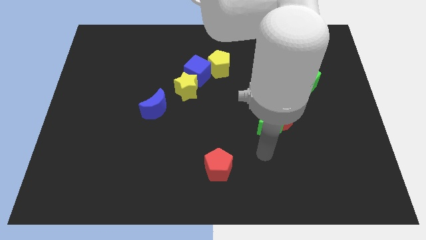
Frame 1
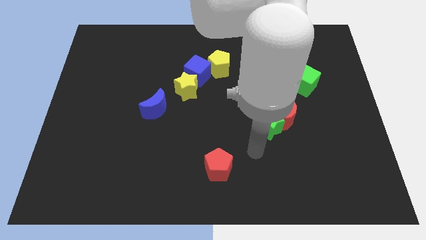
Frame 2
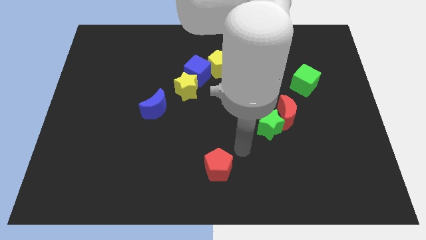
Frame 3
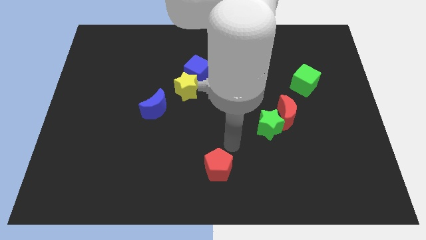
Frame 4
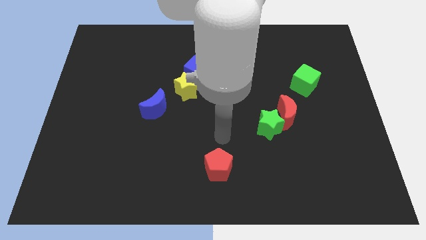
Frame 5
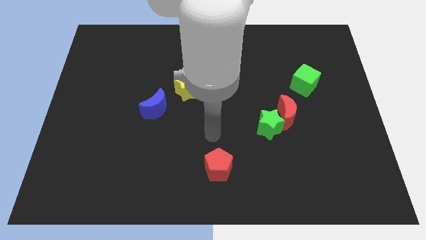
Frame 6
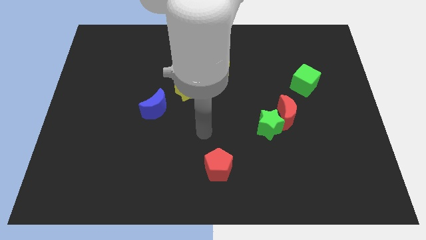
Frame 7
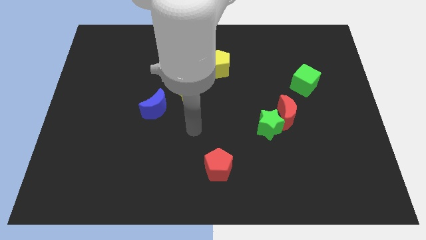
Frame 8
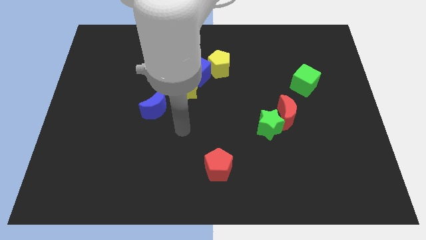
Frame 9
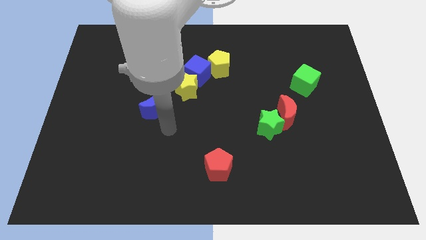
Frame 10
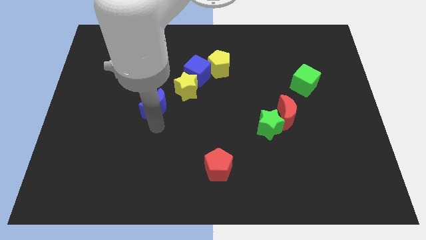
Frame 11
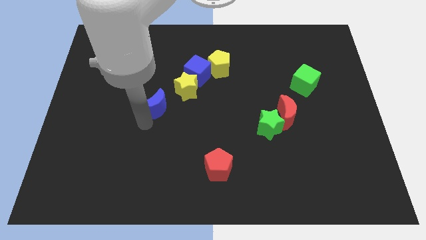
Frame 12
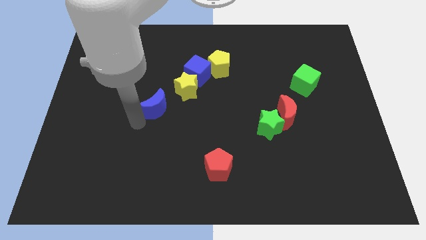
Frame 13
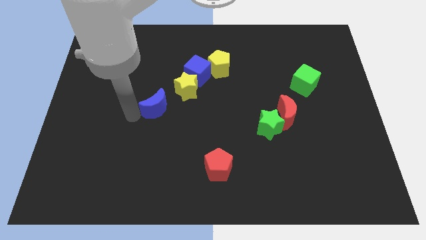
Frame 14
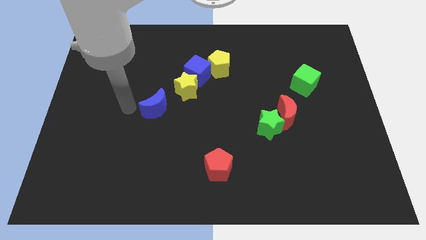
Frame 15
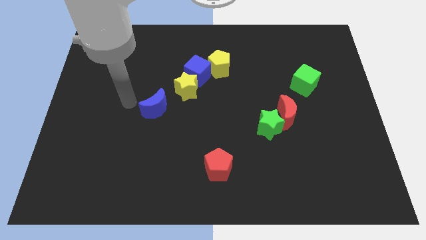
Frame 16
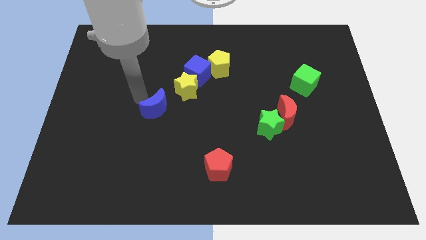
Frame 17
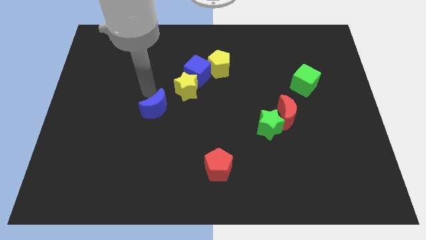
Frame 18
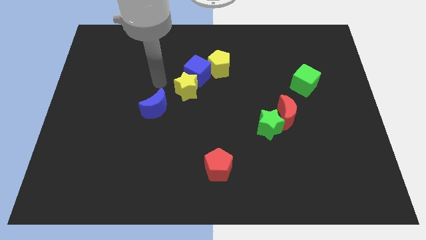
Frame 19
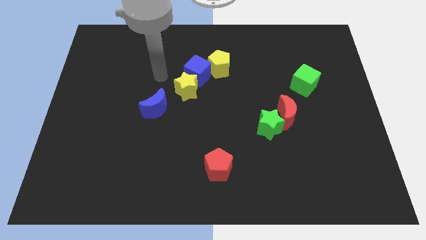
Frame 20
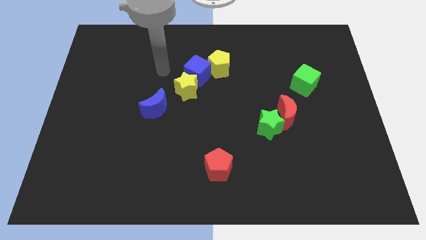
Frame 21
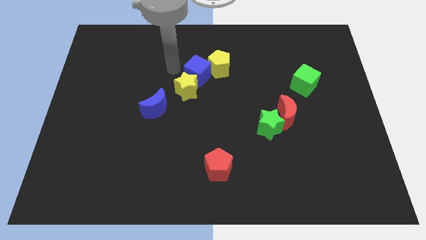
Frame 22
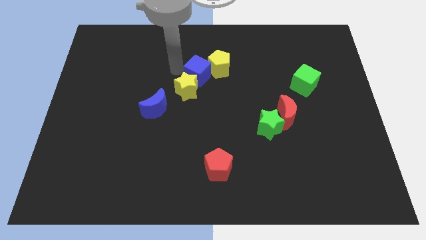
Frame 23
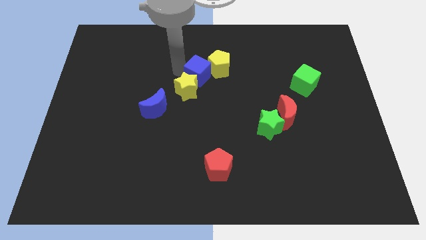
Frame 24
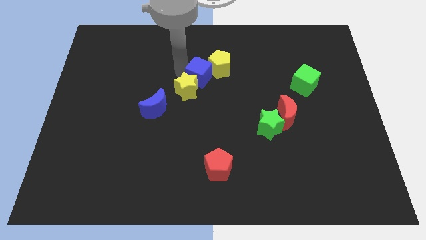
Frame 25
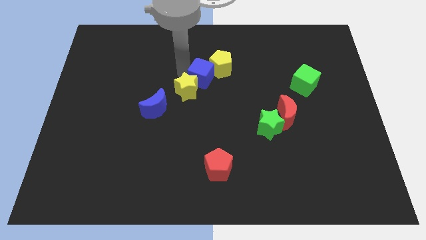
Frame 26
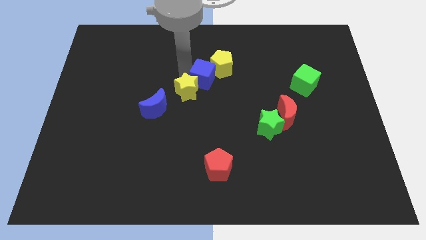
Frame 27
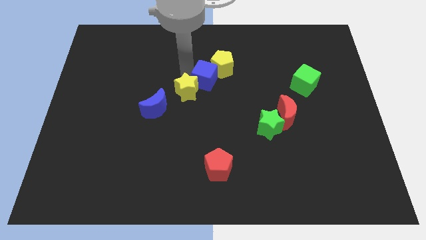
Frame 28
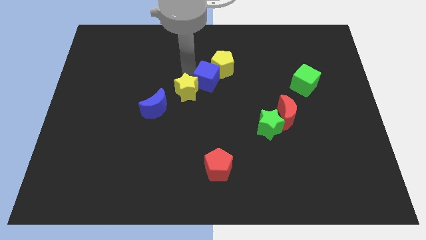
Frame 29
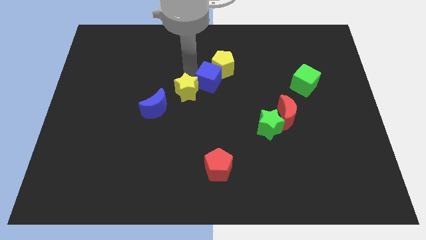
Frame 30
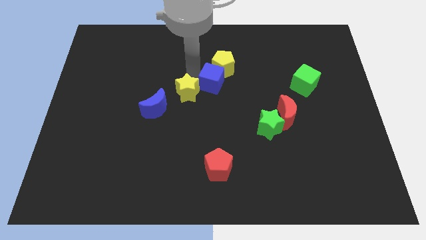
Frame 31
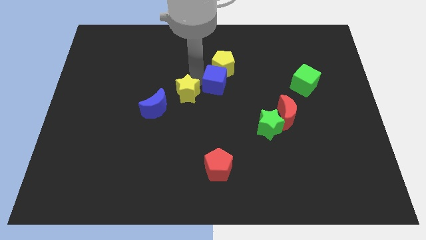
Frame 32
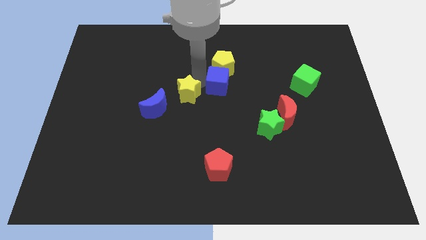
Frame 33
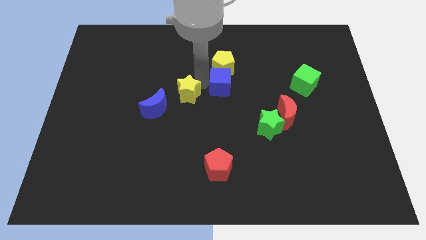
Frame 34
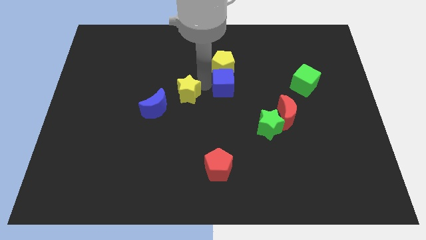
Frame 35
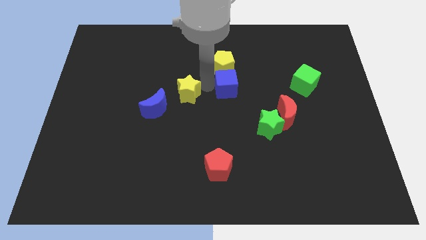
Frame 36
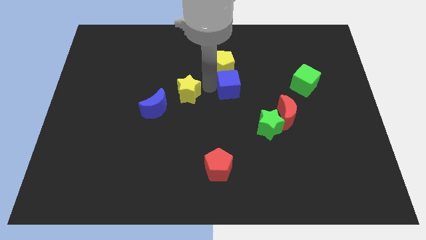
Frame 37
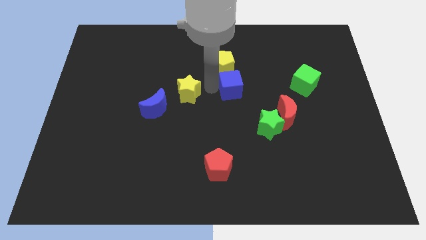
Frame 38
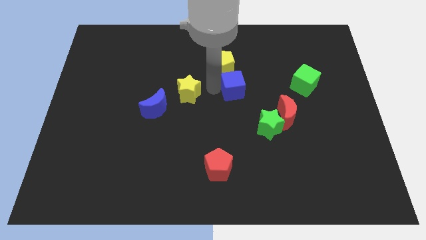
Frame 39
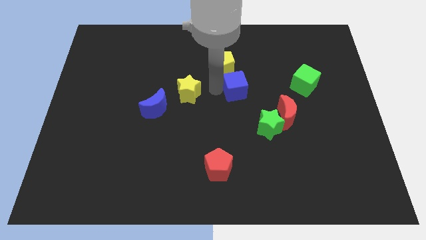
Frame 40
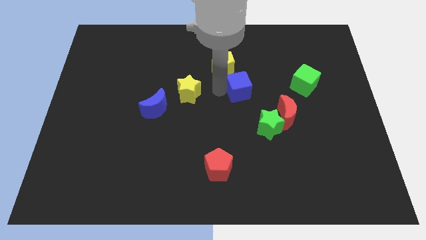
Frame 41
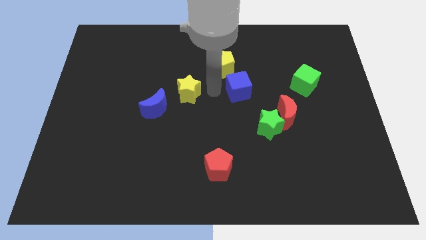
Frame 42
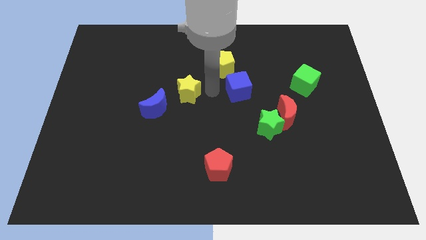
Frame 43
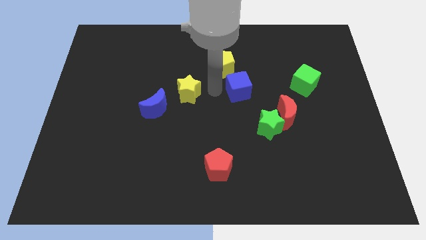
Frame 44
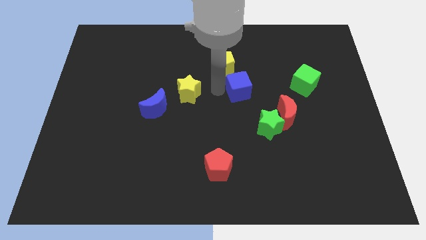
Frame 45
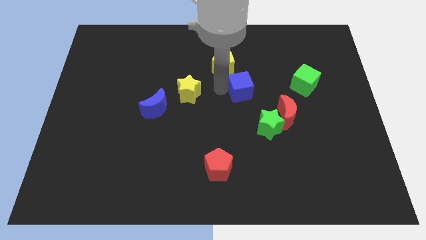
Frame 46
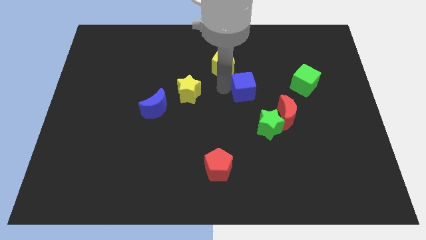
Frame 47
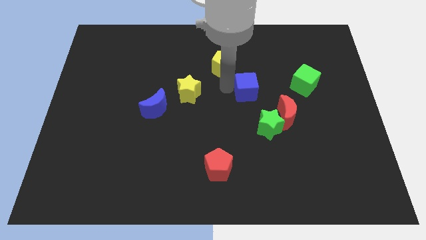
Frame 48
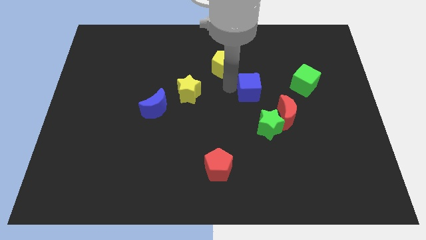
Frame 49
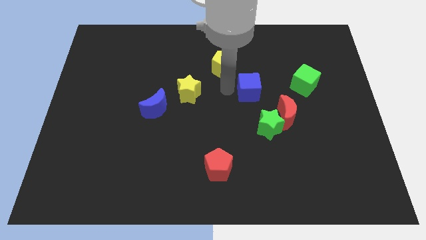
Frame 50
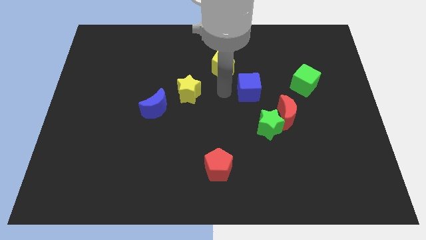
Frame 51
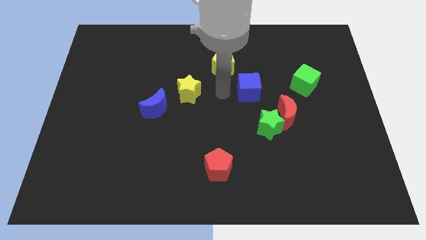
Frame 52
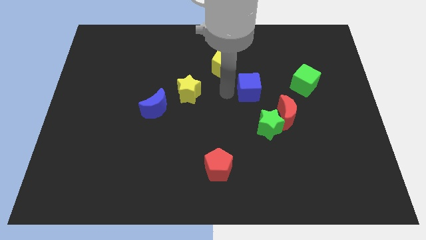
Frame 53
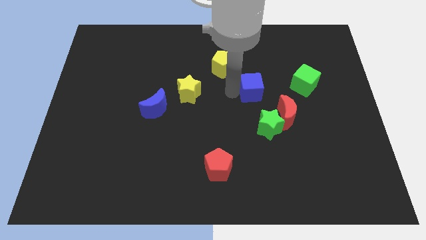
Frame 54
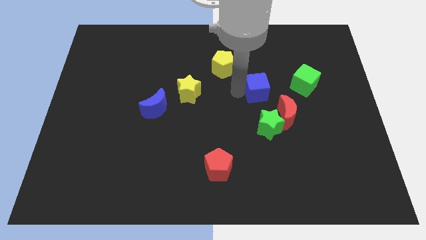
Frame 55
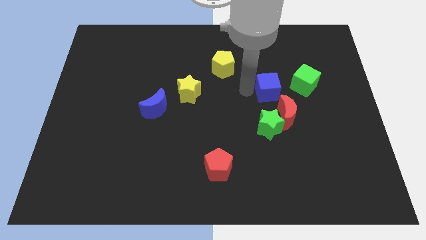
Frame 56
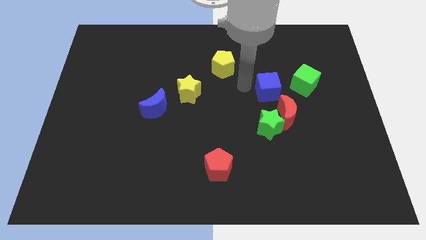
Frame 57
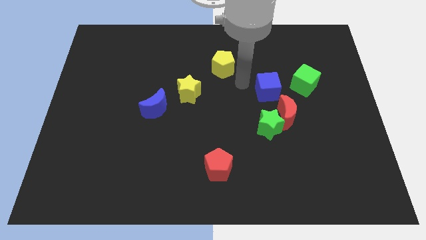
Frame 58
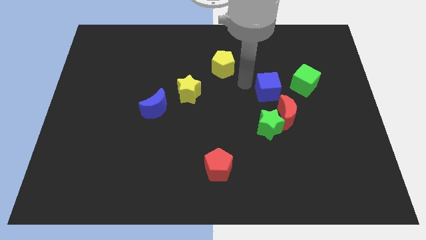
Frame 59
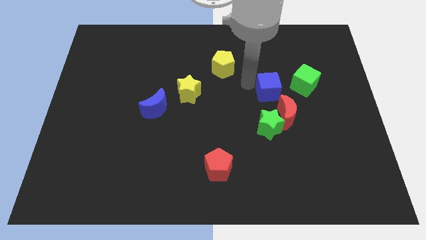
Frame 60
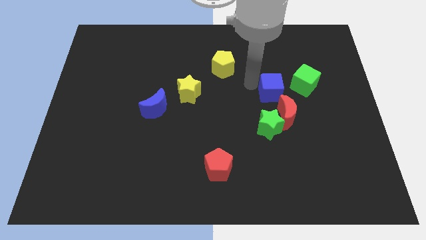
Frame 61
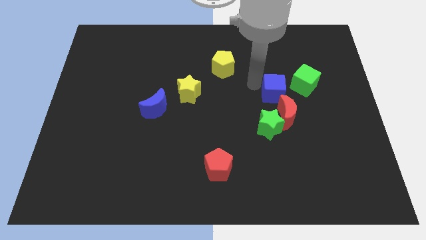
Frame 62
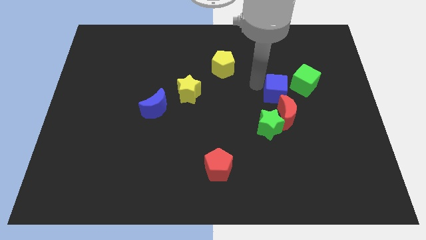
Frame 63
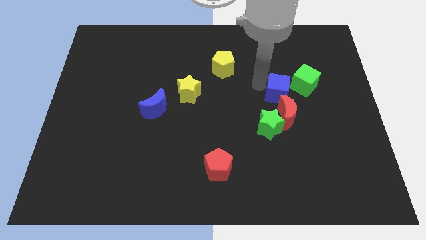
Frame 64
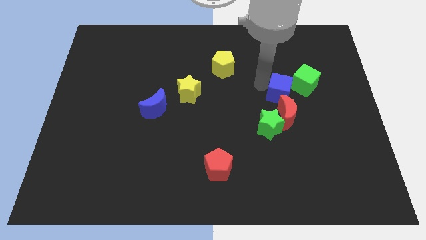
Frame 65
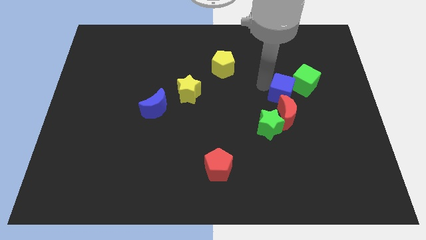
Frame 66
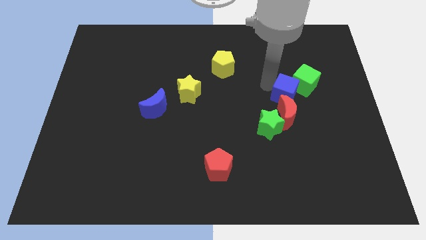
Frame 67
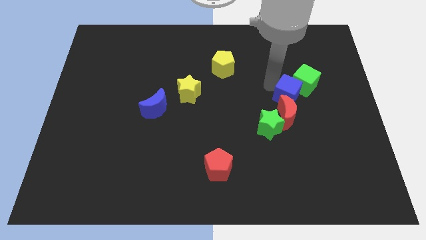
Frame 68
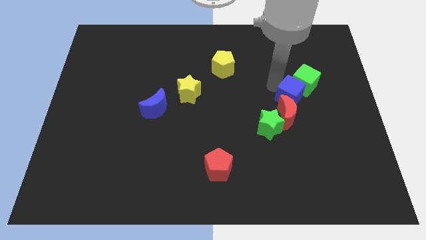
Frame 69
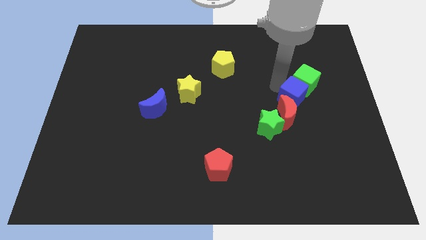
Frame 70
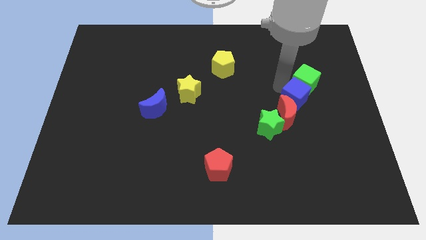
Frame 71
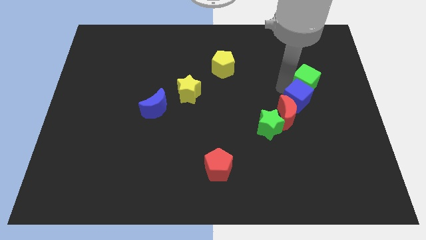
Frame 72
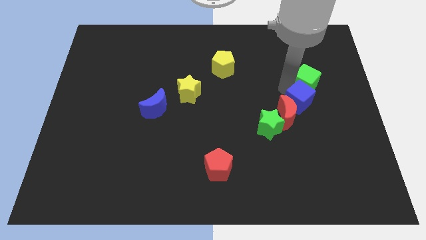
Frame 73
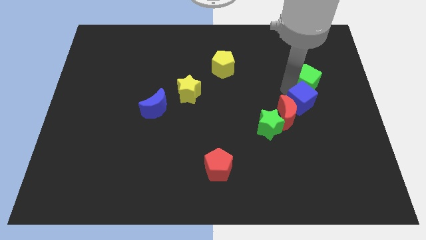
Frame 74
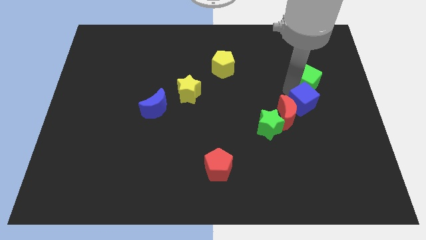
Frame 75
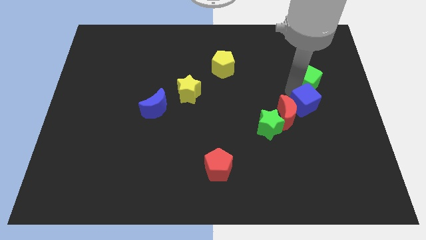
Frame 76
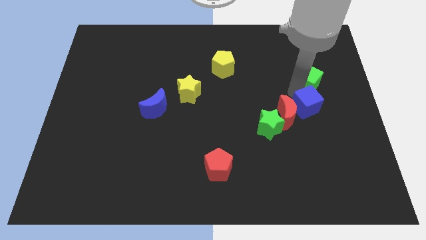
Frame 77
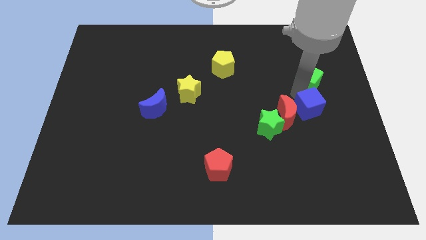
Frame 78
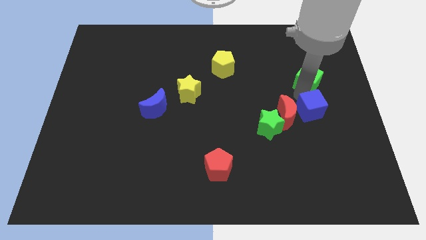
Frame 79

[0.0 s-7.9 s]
put the blue cube to the right of the green star
